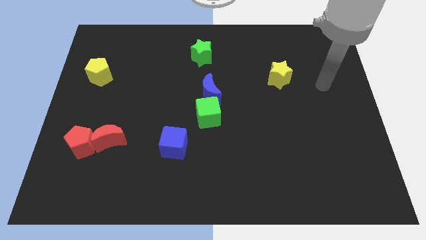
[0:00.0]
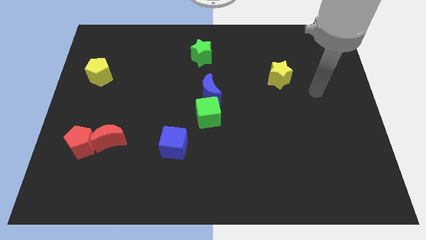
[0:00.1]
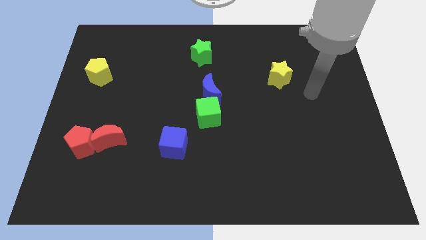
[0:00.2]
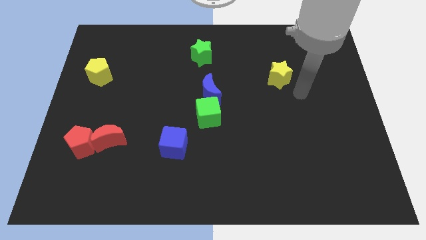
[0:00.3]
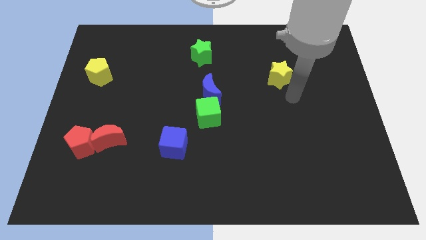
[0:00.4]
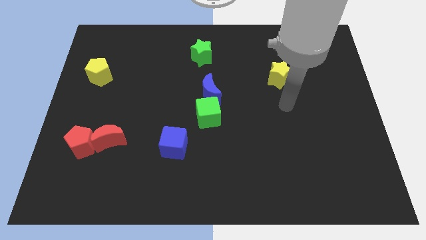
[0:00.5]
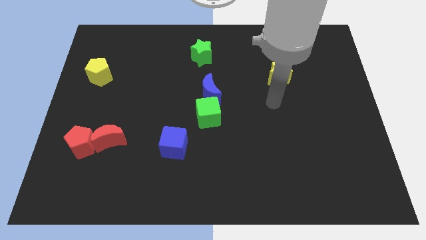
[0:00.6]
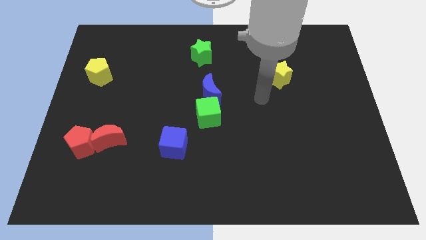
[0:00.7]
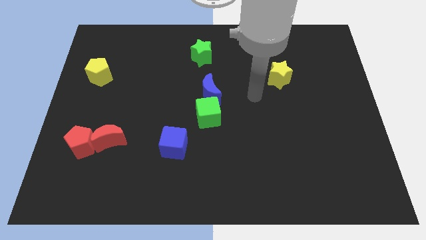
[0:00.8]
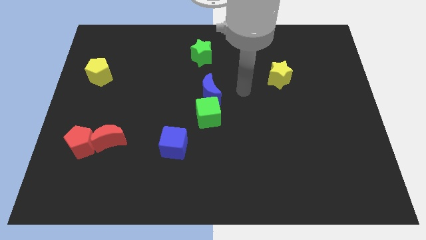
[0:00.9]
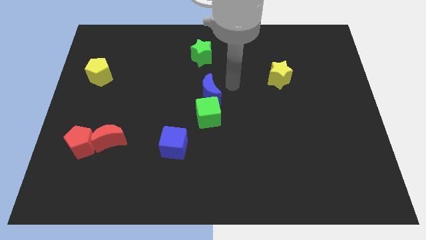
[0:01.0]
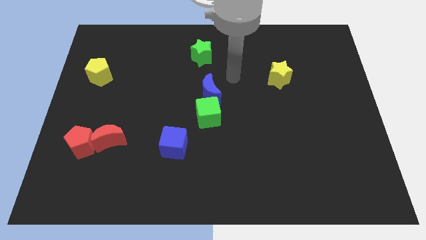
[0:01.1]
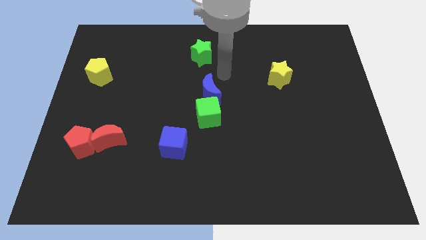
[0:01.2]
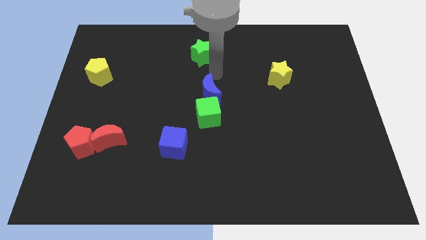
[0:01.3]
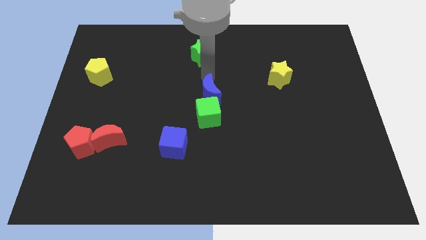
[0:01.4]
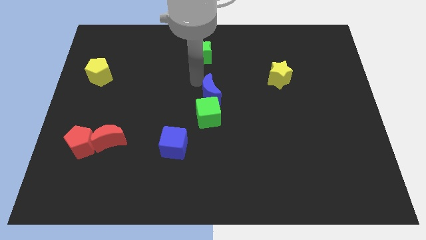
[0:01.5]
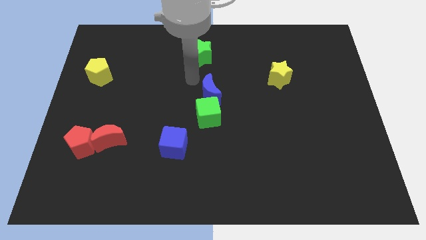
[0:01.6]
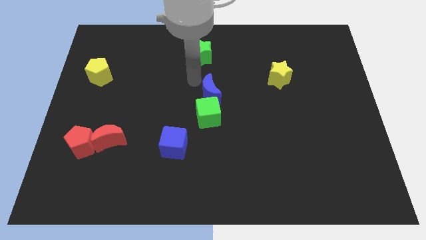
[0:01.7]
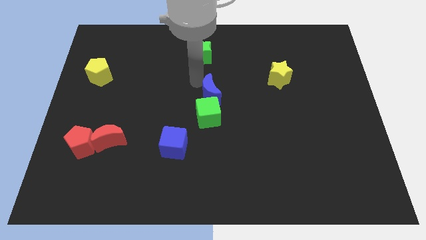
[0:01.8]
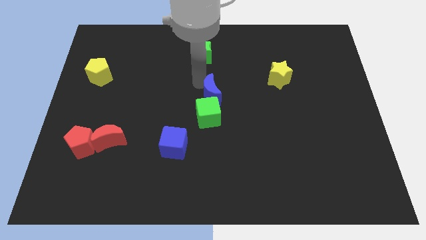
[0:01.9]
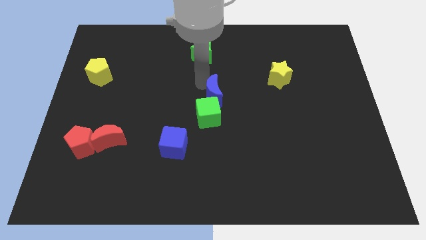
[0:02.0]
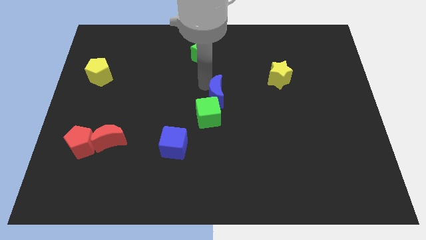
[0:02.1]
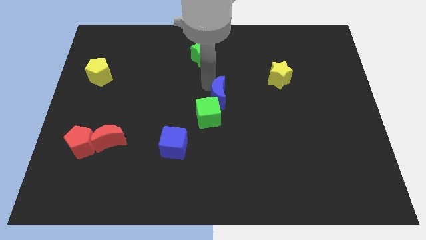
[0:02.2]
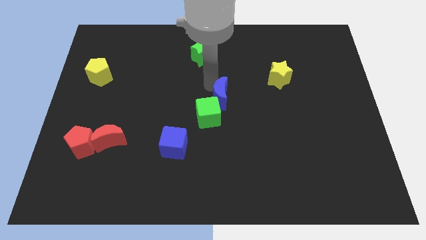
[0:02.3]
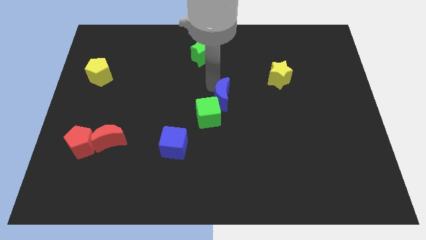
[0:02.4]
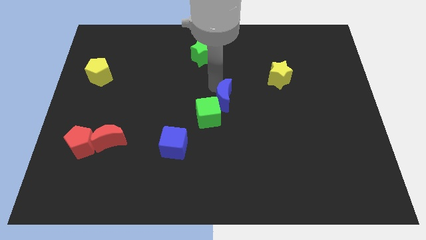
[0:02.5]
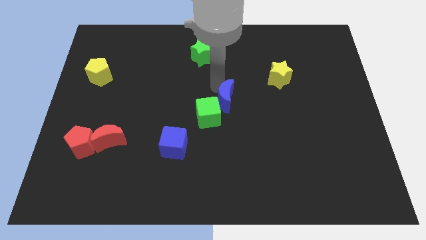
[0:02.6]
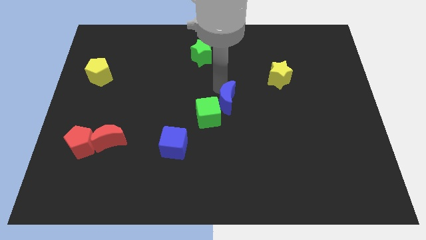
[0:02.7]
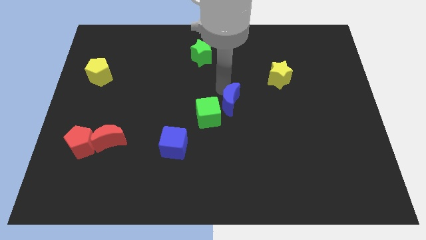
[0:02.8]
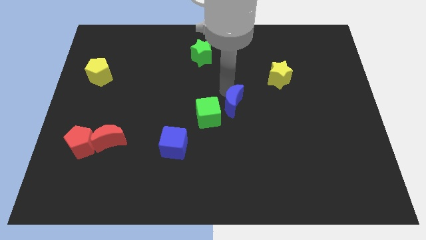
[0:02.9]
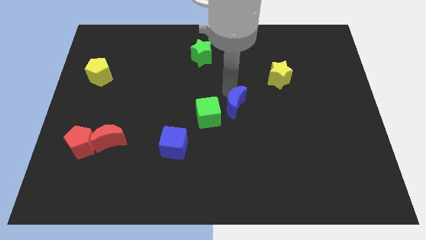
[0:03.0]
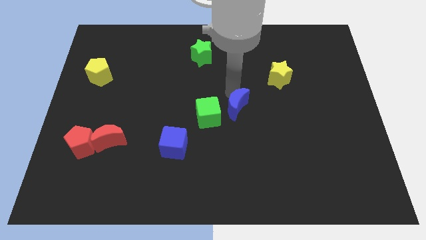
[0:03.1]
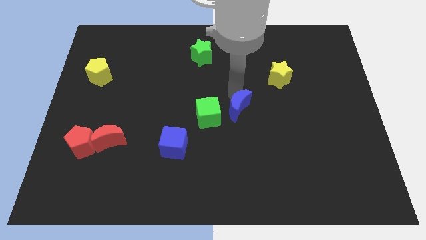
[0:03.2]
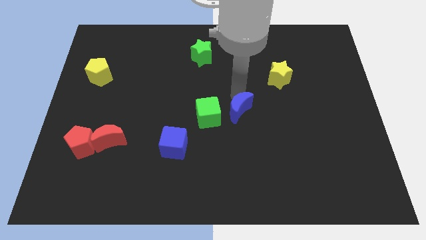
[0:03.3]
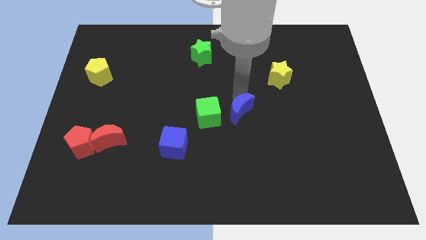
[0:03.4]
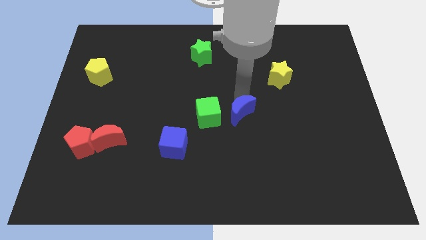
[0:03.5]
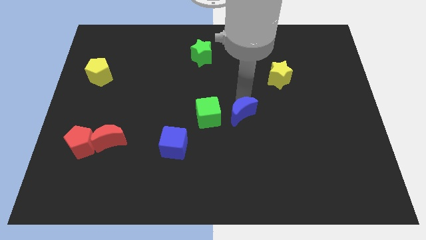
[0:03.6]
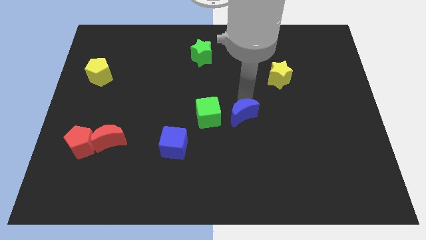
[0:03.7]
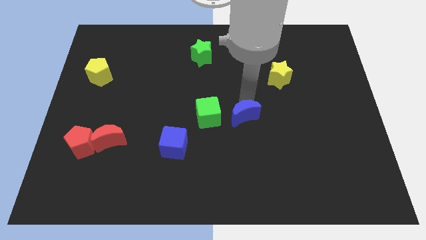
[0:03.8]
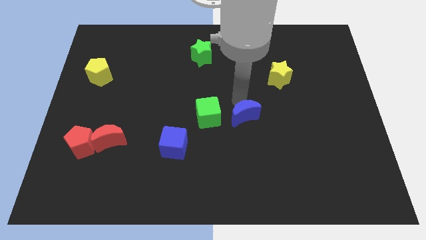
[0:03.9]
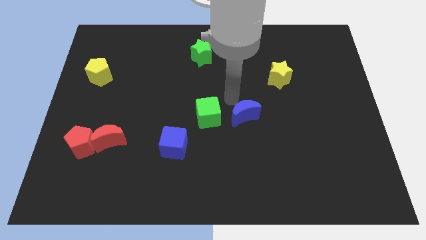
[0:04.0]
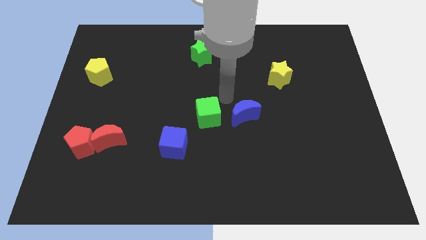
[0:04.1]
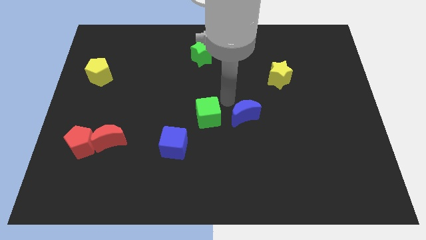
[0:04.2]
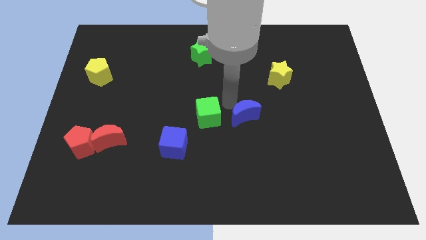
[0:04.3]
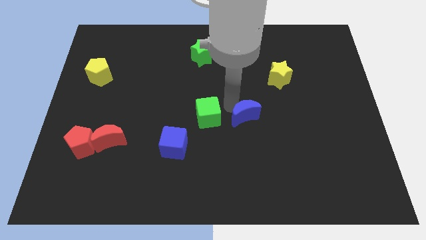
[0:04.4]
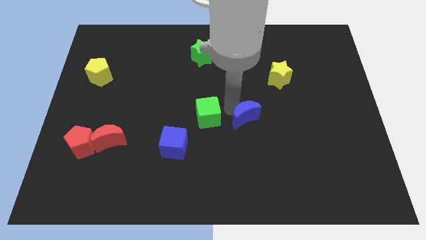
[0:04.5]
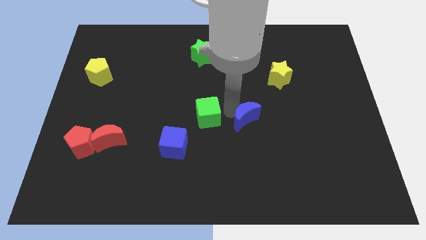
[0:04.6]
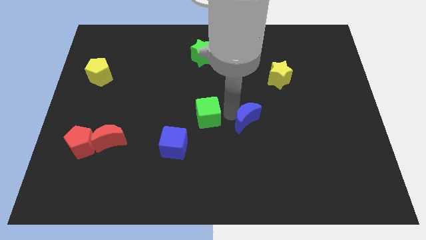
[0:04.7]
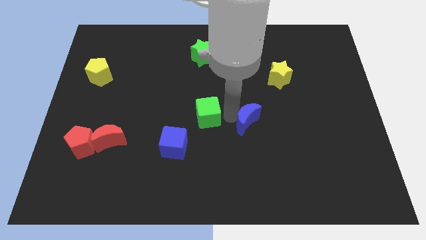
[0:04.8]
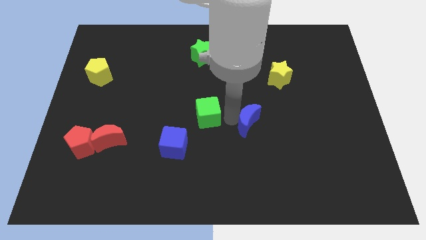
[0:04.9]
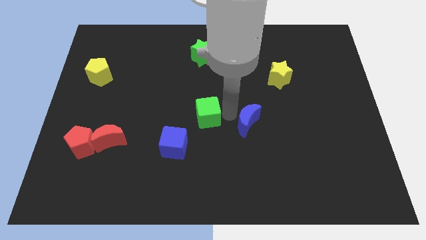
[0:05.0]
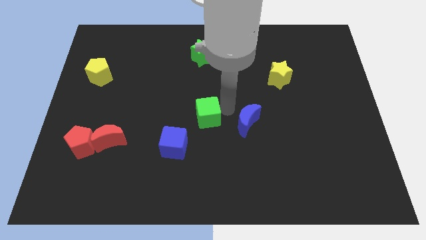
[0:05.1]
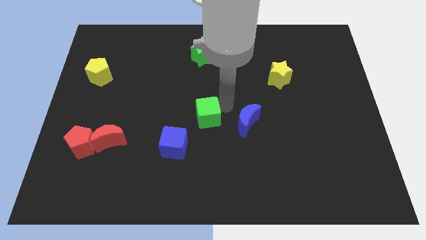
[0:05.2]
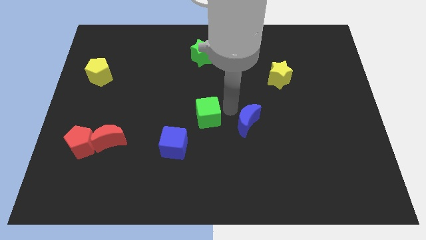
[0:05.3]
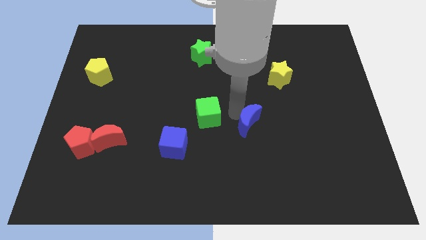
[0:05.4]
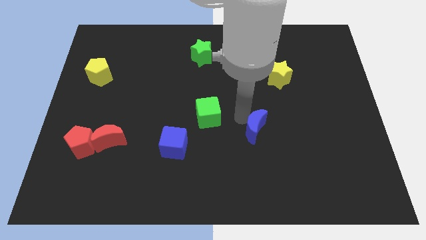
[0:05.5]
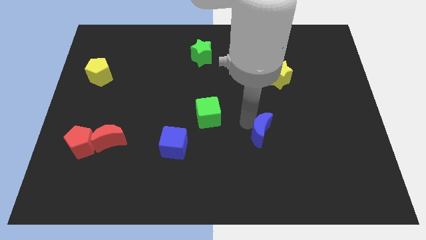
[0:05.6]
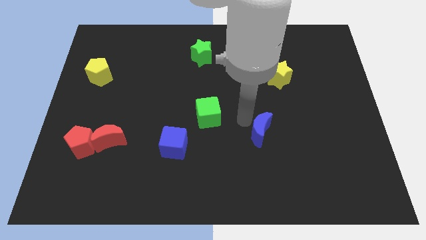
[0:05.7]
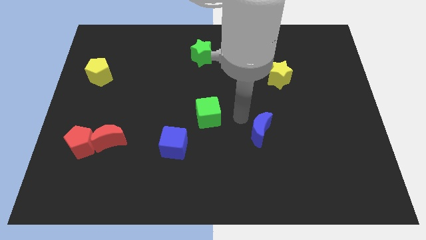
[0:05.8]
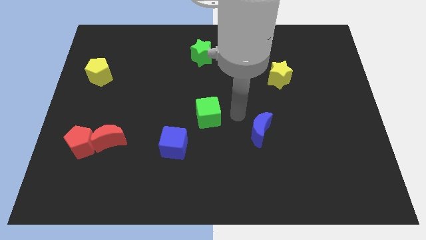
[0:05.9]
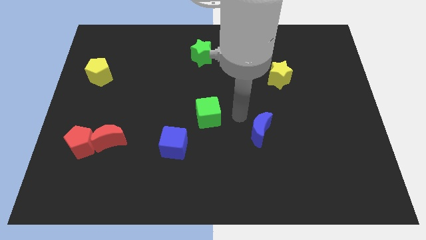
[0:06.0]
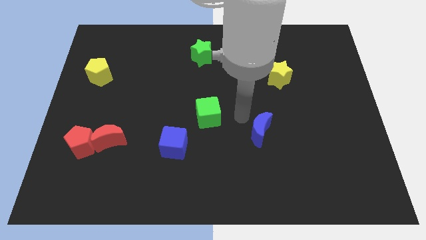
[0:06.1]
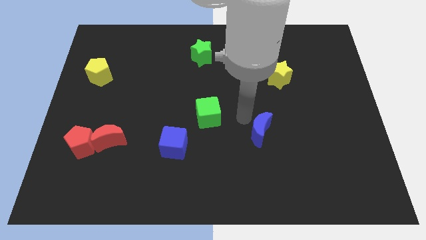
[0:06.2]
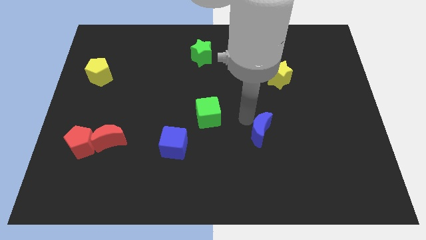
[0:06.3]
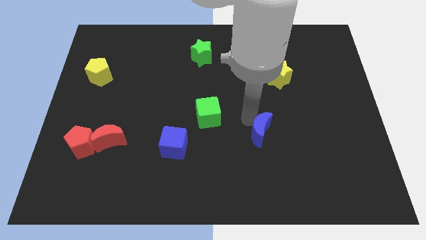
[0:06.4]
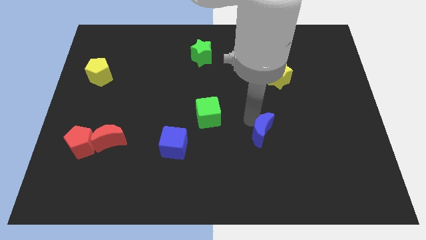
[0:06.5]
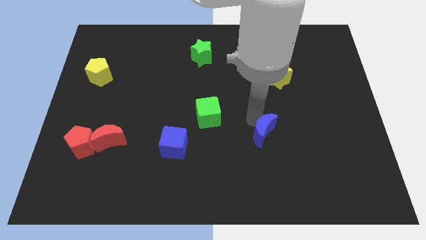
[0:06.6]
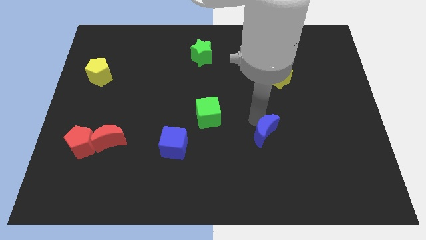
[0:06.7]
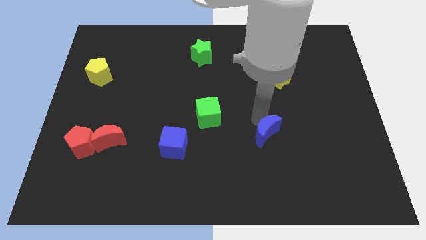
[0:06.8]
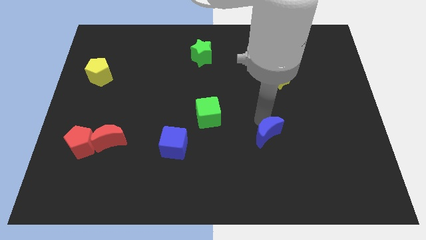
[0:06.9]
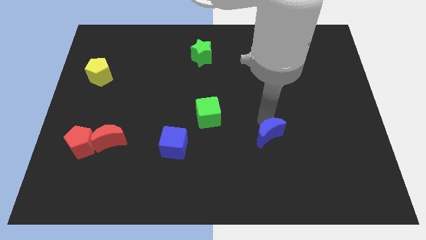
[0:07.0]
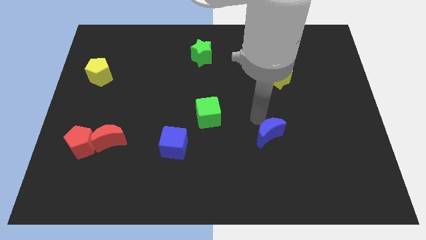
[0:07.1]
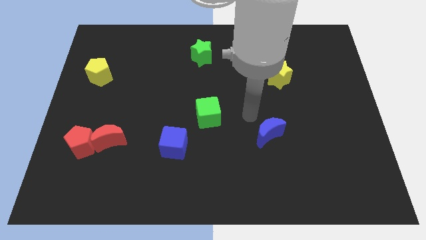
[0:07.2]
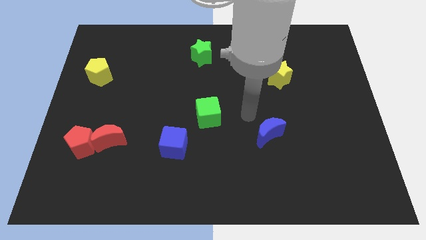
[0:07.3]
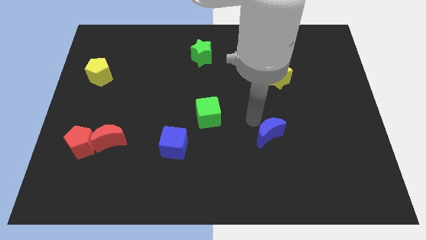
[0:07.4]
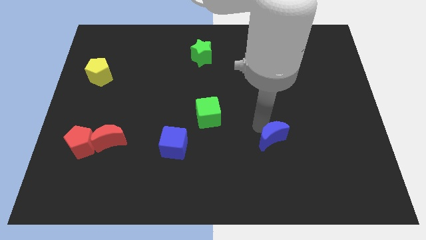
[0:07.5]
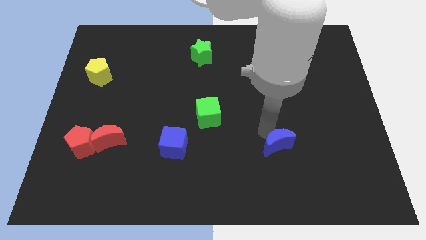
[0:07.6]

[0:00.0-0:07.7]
slide the blue moon downwards and then right
